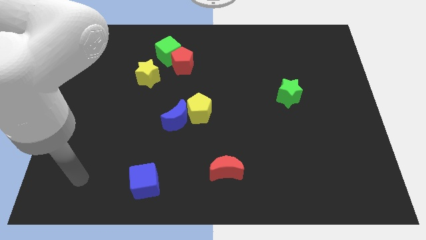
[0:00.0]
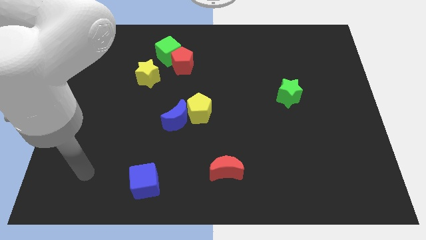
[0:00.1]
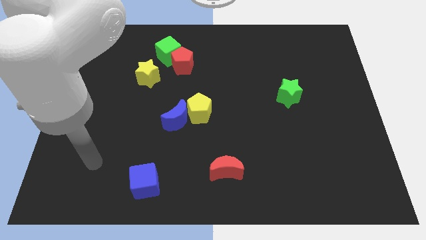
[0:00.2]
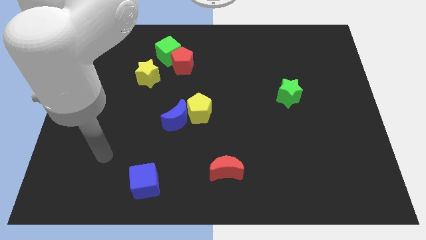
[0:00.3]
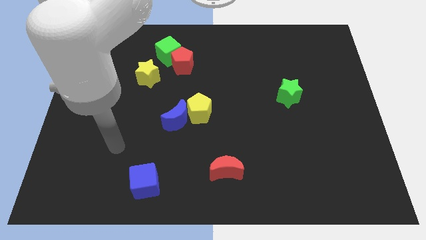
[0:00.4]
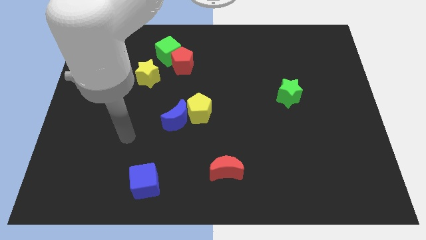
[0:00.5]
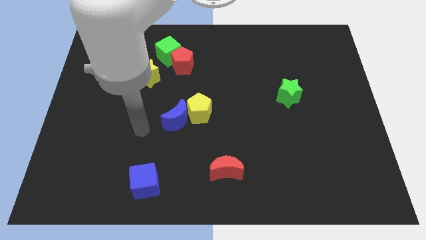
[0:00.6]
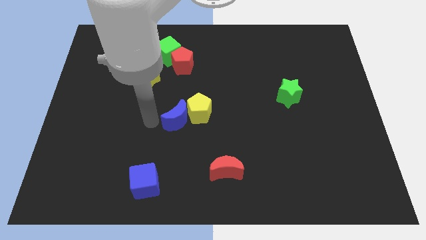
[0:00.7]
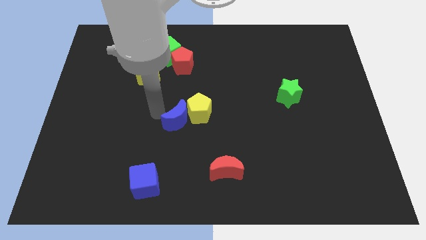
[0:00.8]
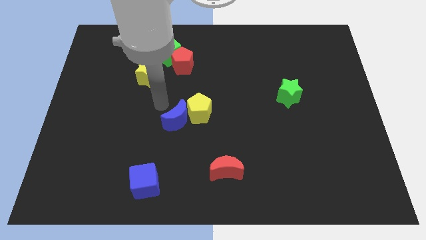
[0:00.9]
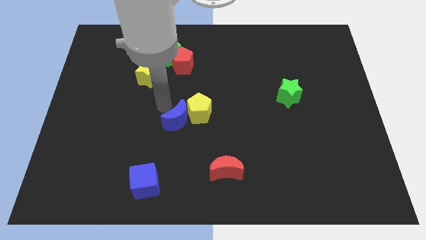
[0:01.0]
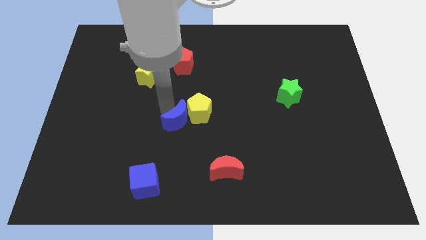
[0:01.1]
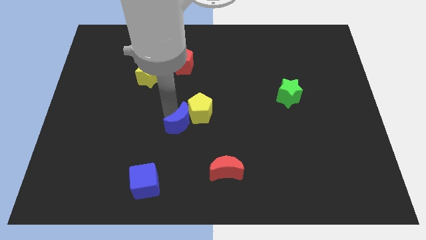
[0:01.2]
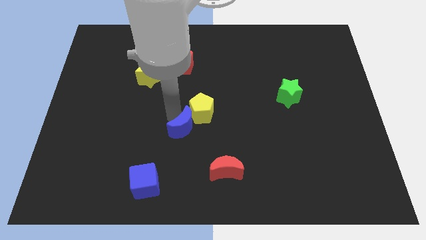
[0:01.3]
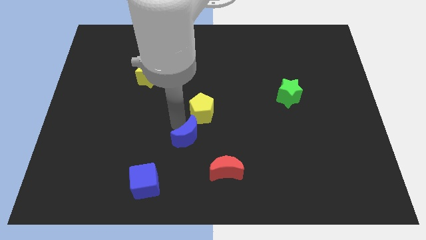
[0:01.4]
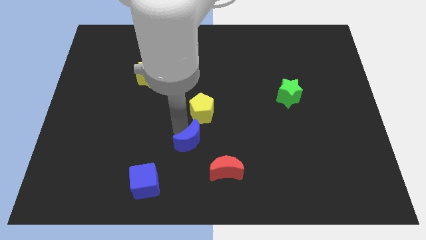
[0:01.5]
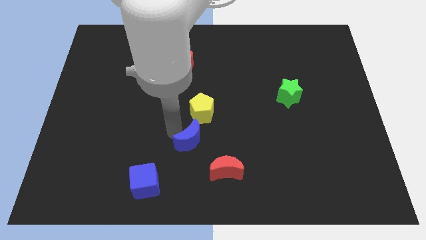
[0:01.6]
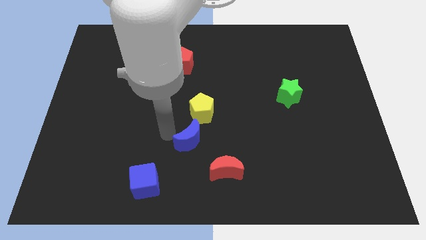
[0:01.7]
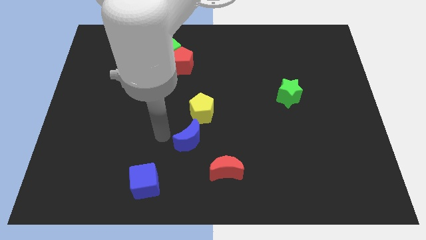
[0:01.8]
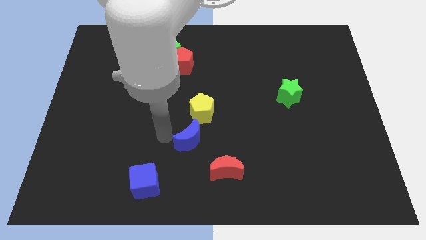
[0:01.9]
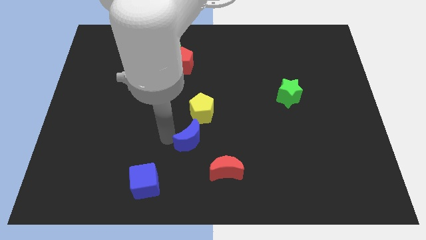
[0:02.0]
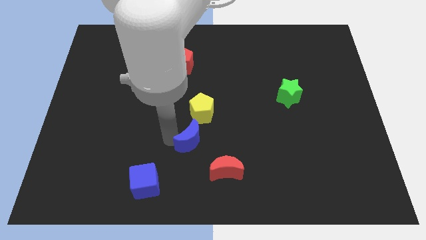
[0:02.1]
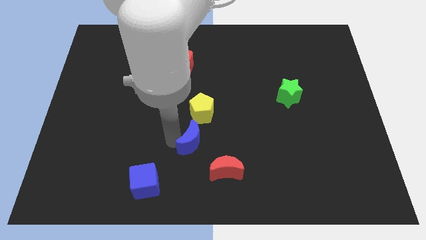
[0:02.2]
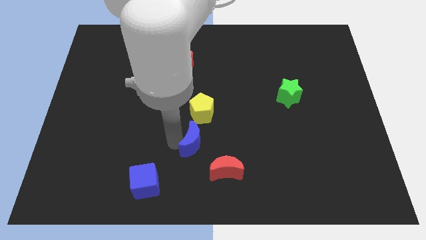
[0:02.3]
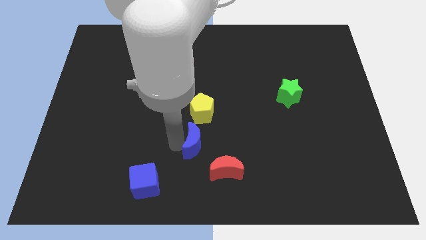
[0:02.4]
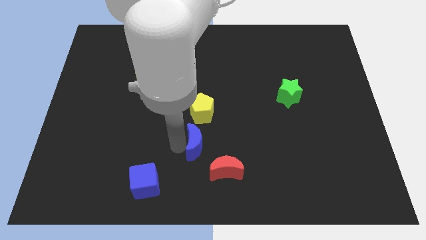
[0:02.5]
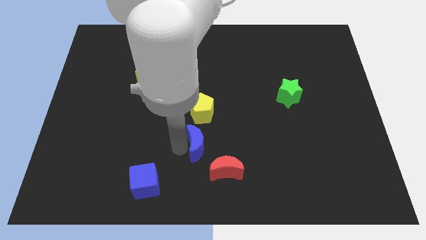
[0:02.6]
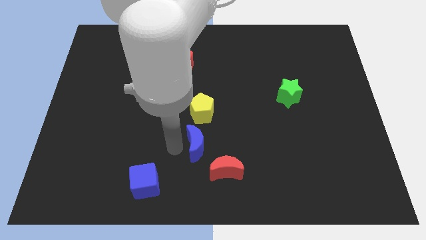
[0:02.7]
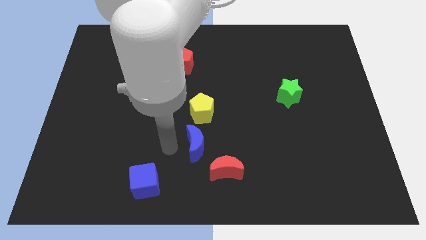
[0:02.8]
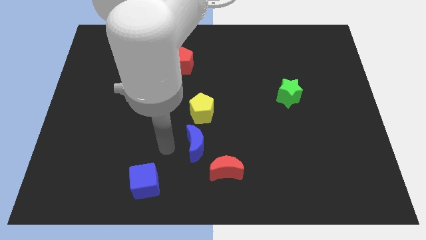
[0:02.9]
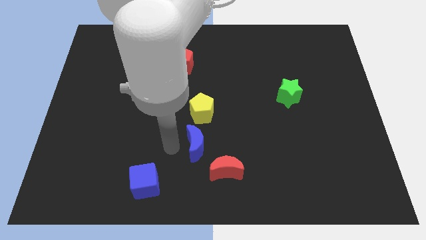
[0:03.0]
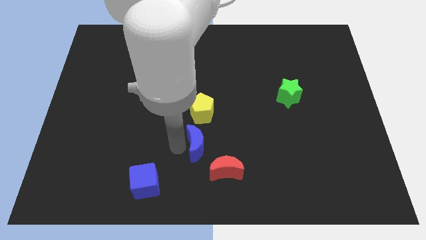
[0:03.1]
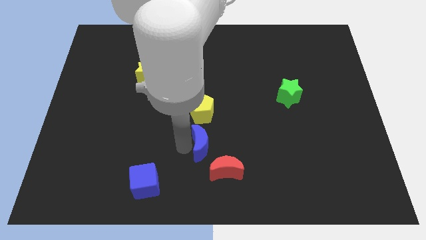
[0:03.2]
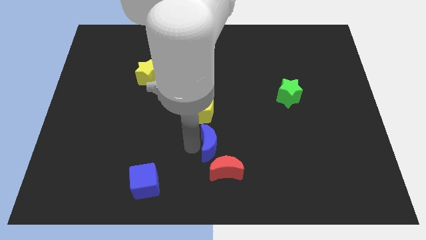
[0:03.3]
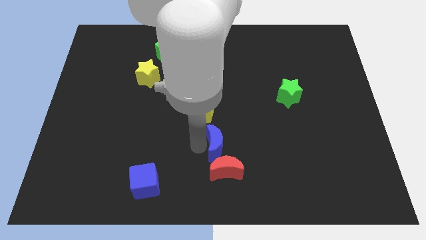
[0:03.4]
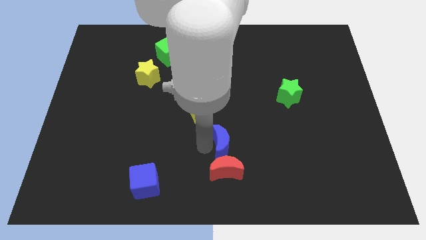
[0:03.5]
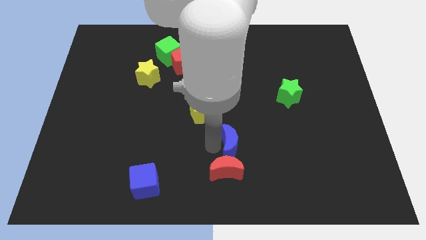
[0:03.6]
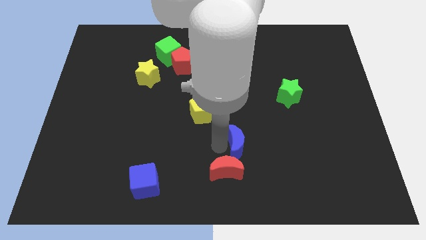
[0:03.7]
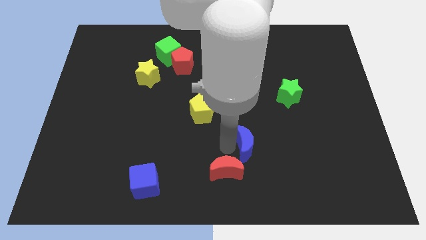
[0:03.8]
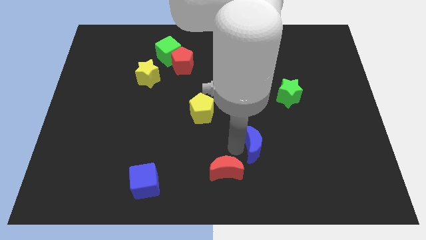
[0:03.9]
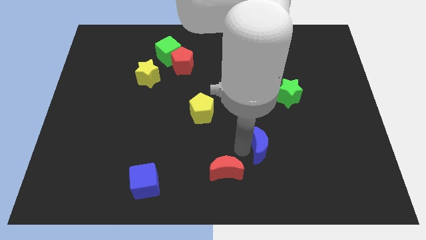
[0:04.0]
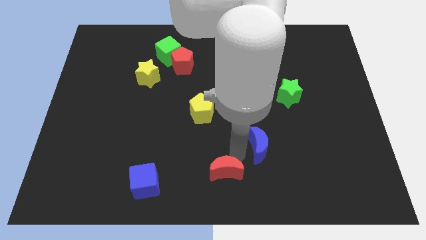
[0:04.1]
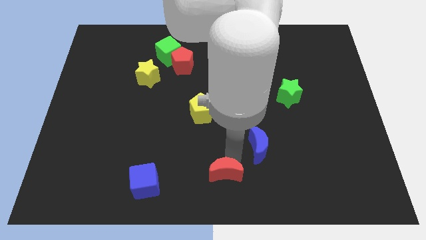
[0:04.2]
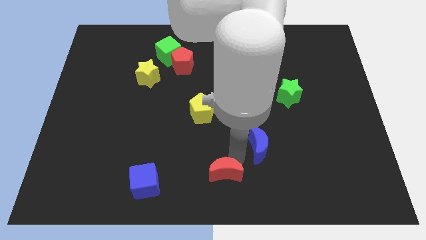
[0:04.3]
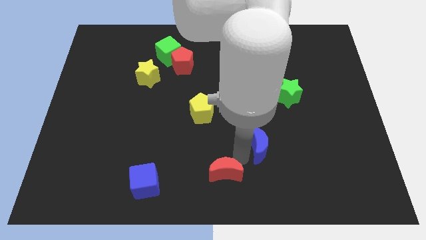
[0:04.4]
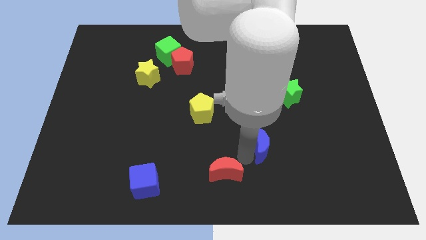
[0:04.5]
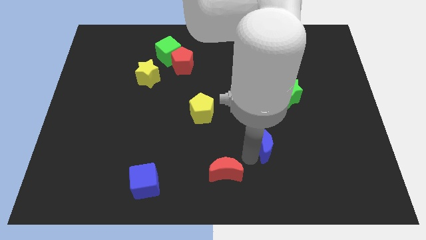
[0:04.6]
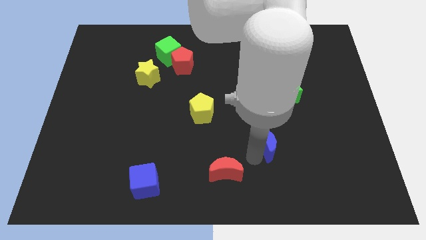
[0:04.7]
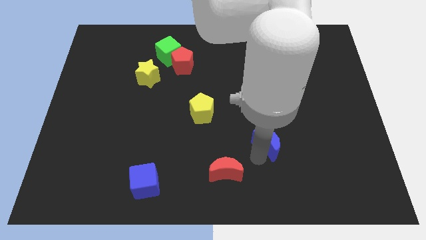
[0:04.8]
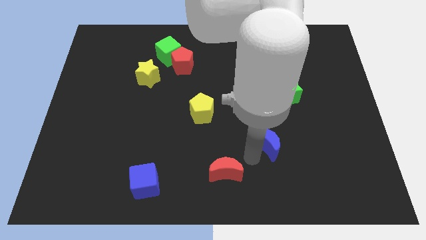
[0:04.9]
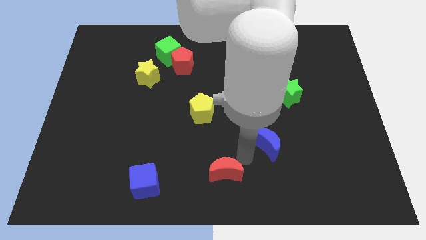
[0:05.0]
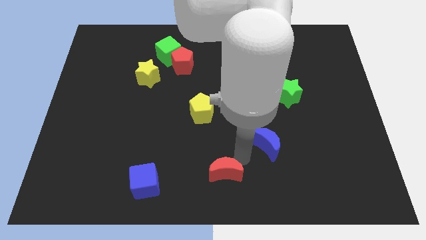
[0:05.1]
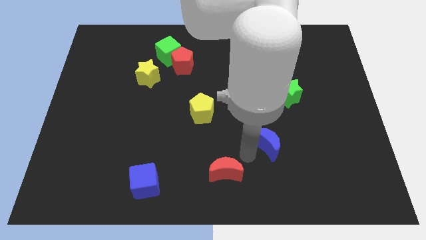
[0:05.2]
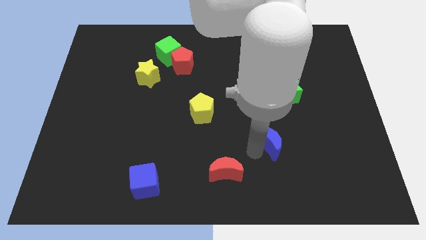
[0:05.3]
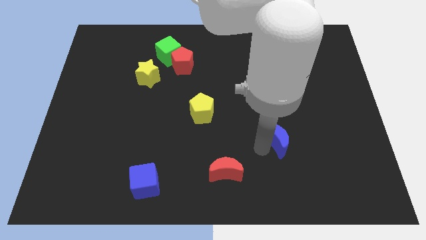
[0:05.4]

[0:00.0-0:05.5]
push the blue moon to the bottom side of the green star

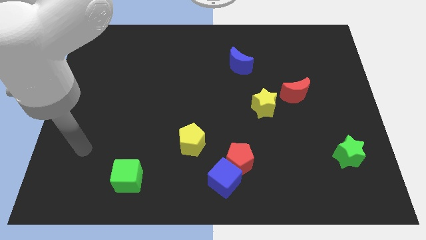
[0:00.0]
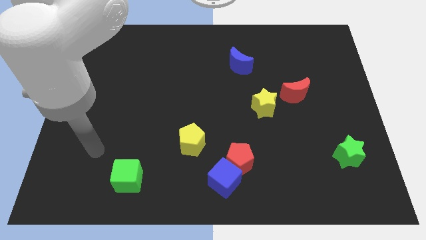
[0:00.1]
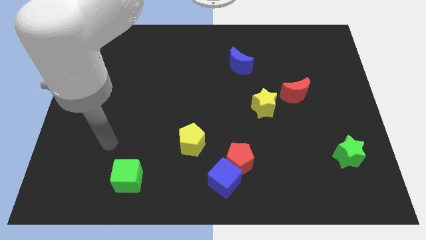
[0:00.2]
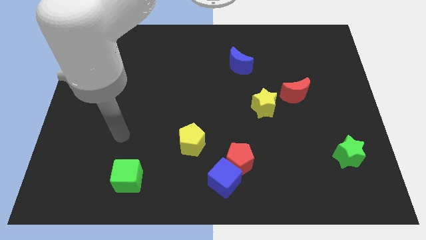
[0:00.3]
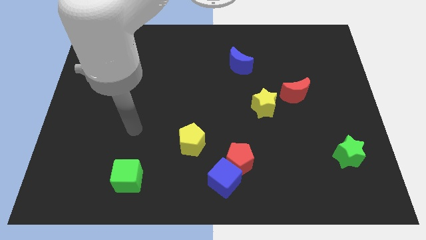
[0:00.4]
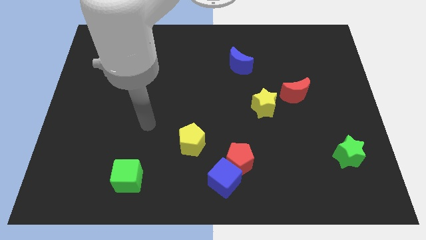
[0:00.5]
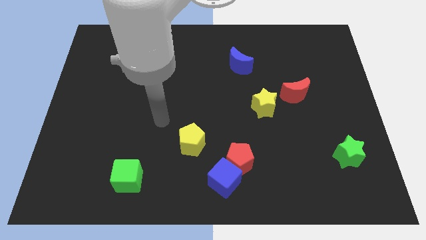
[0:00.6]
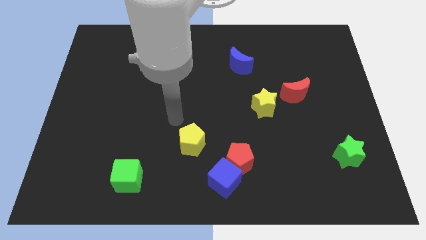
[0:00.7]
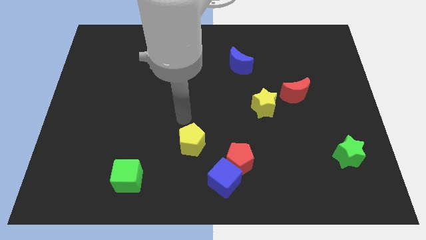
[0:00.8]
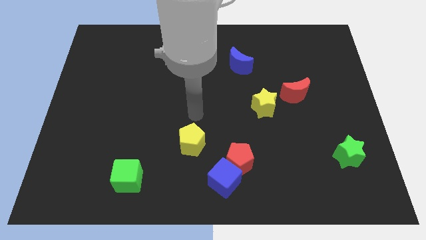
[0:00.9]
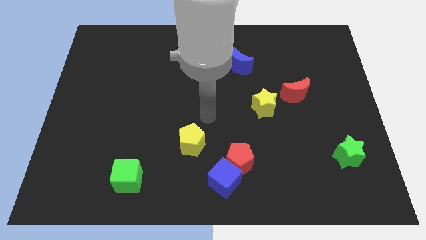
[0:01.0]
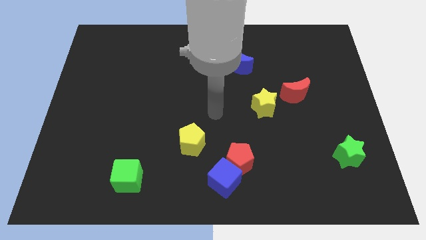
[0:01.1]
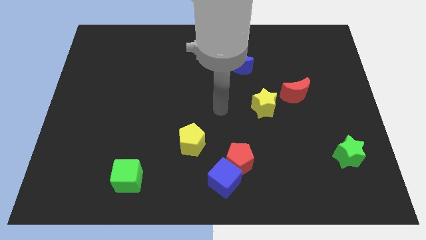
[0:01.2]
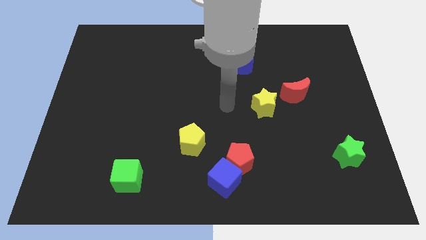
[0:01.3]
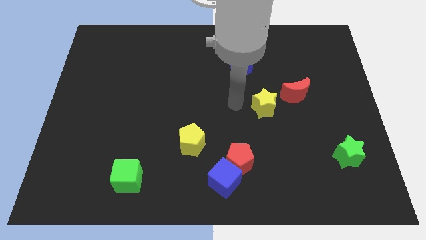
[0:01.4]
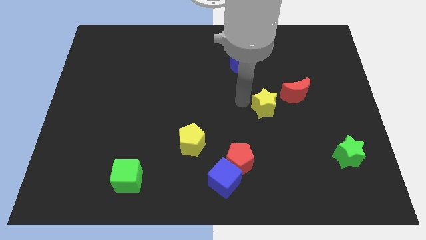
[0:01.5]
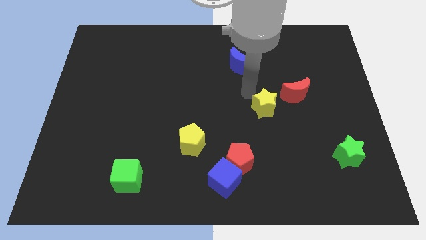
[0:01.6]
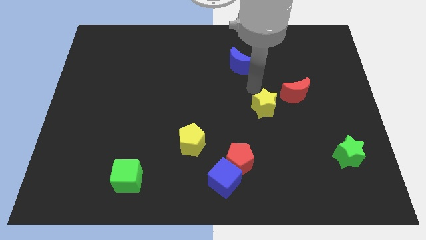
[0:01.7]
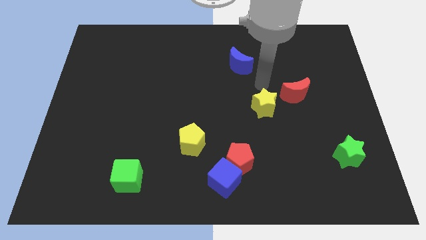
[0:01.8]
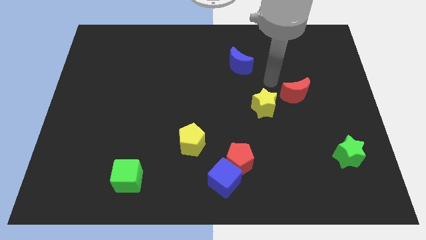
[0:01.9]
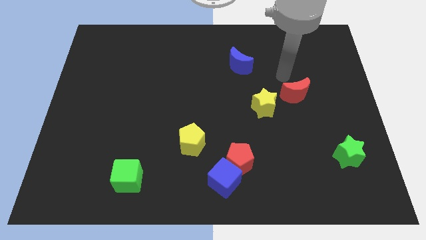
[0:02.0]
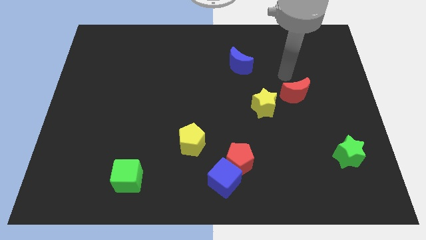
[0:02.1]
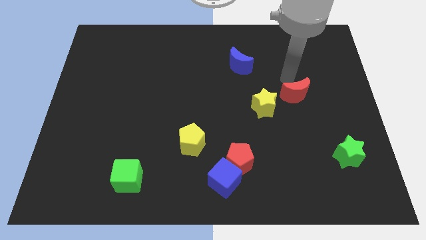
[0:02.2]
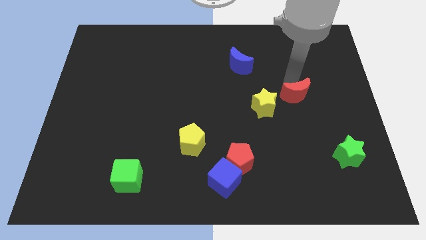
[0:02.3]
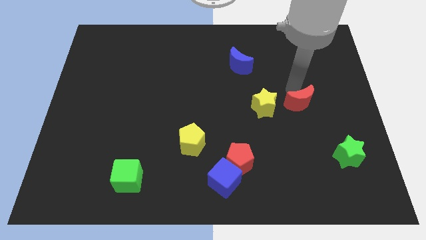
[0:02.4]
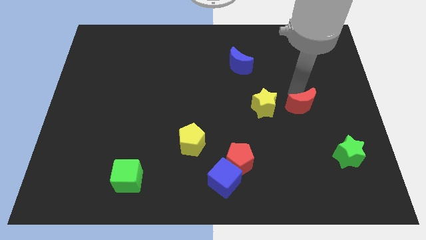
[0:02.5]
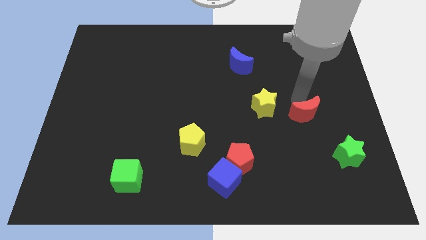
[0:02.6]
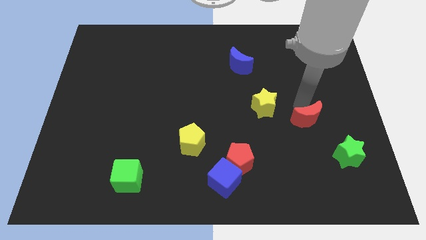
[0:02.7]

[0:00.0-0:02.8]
move the red moon to the top left side of the green star
